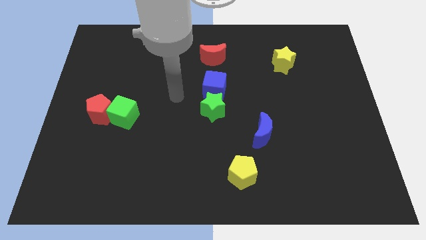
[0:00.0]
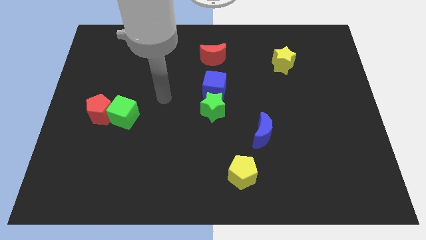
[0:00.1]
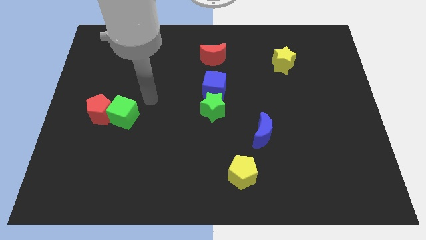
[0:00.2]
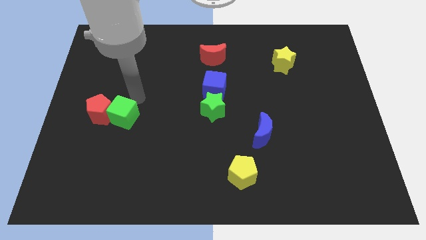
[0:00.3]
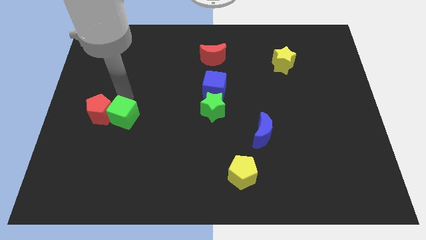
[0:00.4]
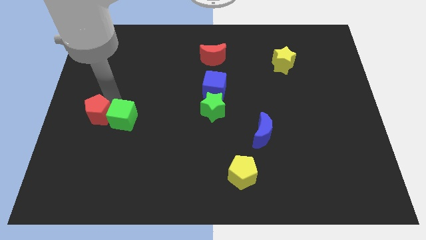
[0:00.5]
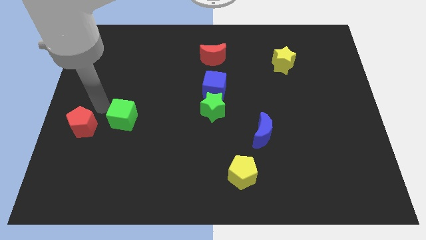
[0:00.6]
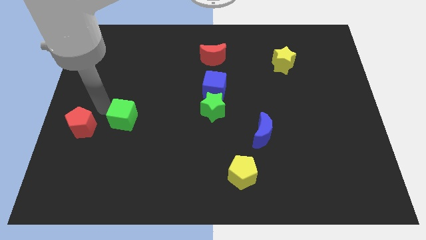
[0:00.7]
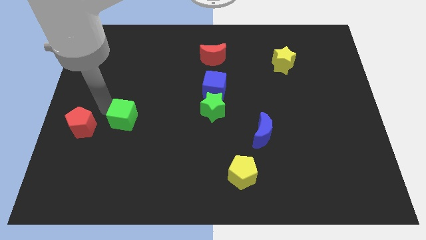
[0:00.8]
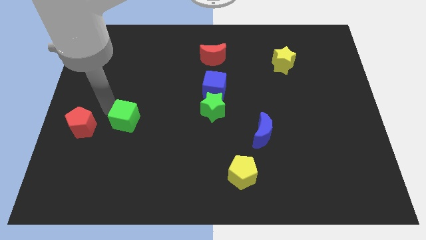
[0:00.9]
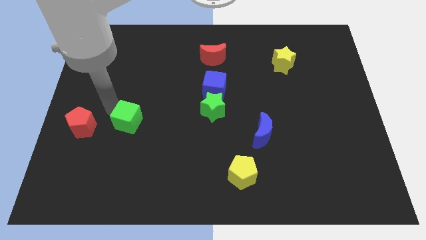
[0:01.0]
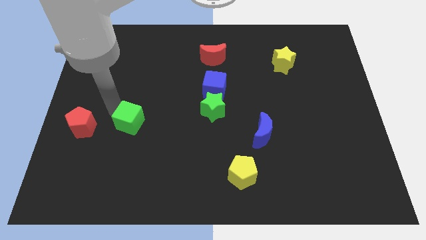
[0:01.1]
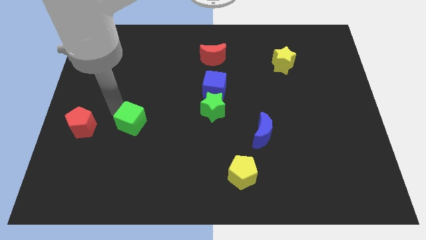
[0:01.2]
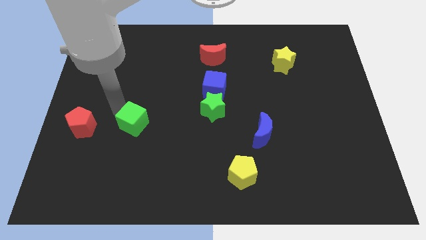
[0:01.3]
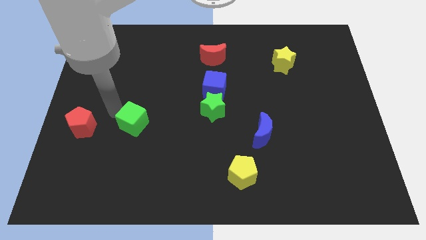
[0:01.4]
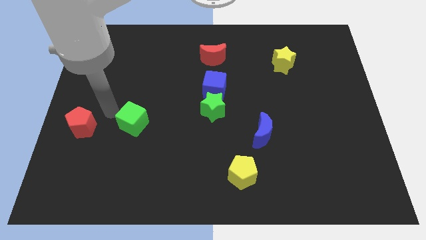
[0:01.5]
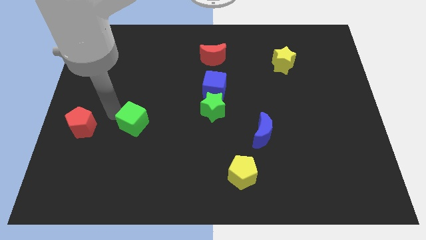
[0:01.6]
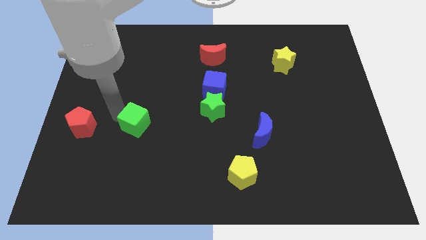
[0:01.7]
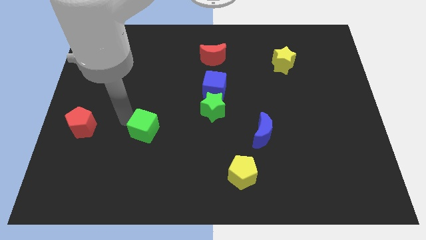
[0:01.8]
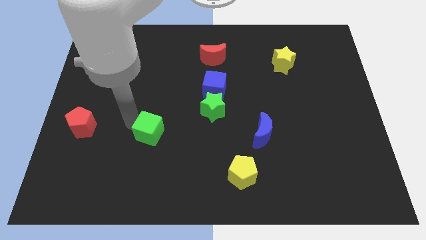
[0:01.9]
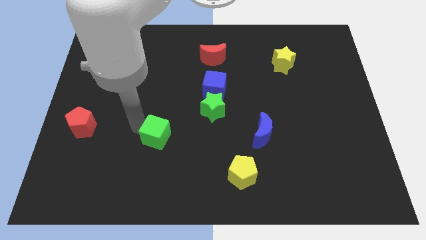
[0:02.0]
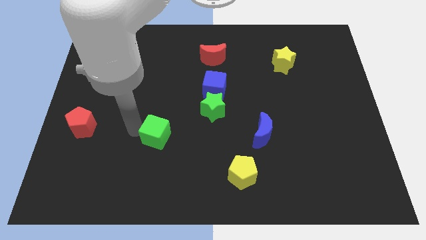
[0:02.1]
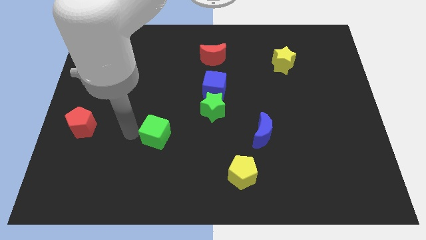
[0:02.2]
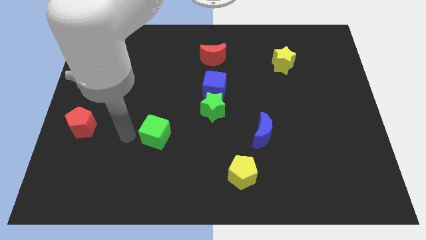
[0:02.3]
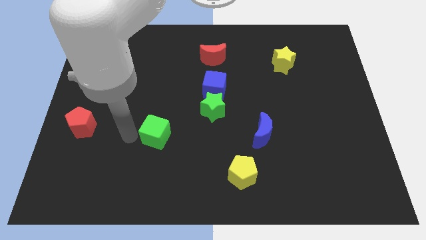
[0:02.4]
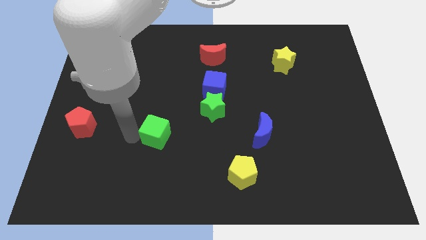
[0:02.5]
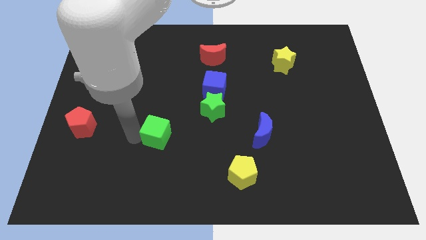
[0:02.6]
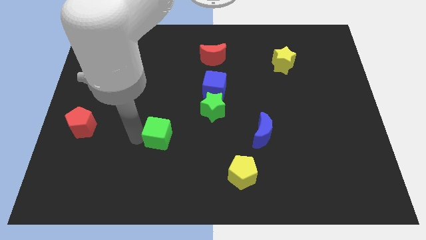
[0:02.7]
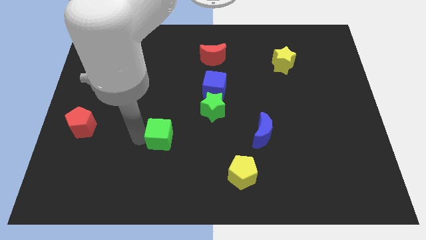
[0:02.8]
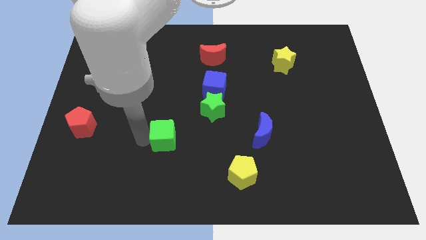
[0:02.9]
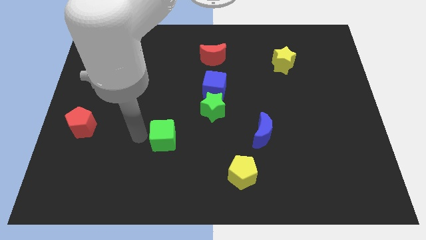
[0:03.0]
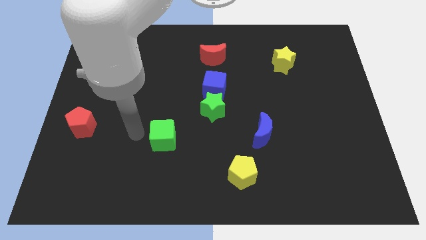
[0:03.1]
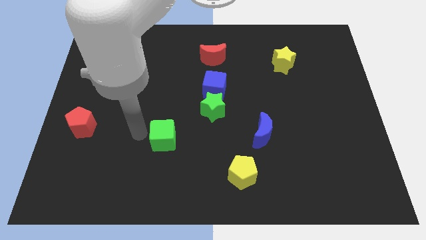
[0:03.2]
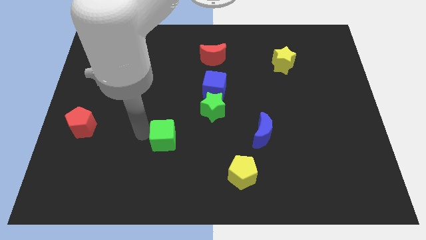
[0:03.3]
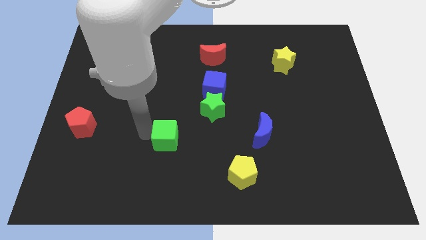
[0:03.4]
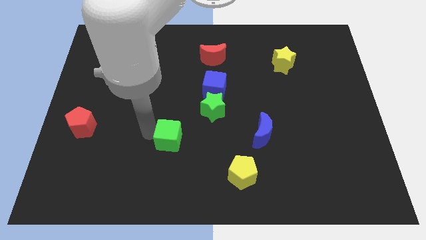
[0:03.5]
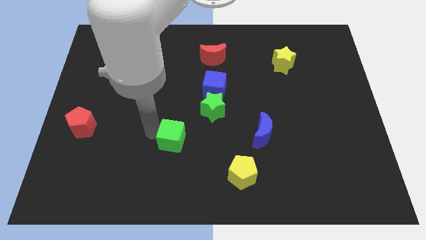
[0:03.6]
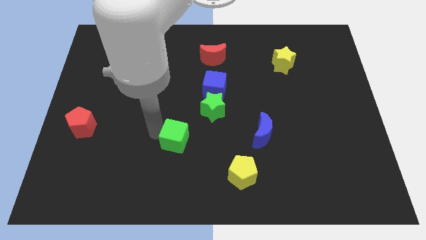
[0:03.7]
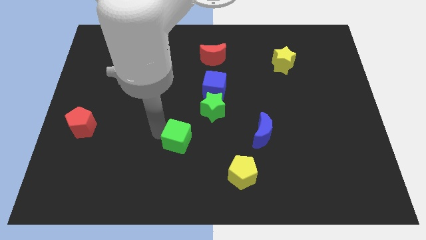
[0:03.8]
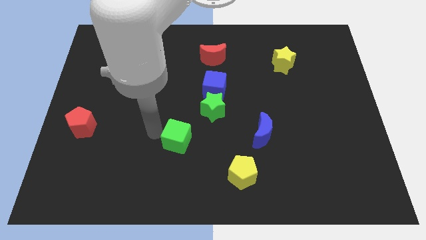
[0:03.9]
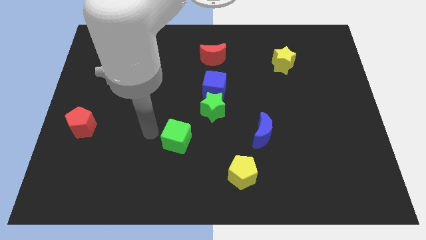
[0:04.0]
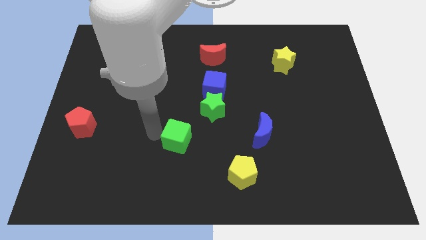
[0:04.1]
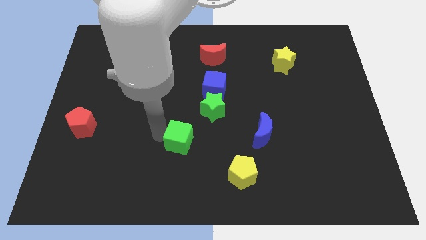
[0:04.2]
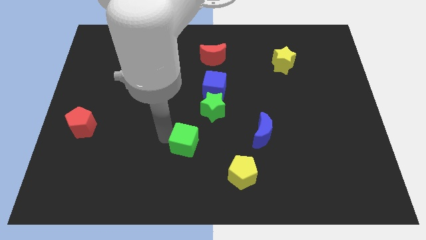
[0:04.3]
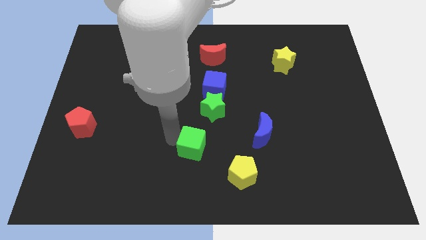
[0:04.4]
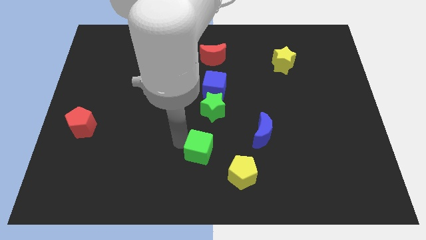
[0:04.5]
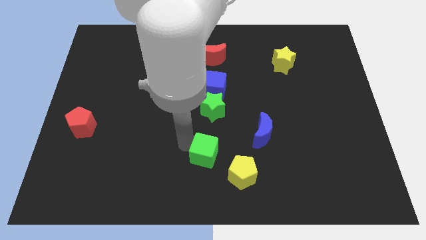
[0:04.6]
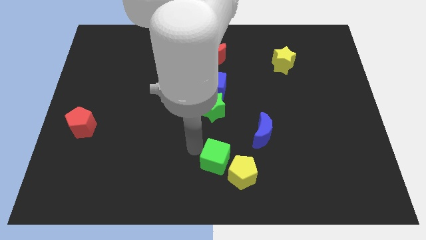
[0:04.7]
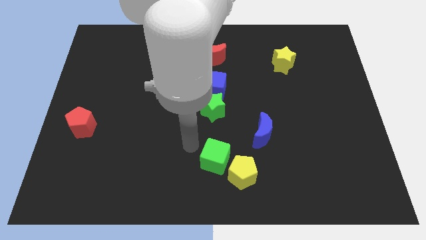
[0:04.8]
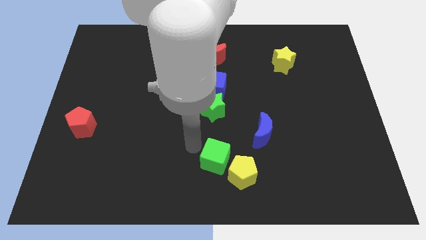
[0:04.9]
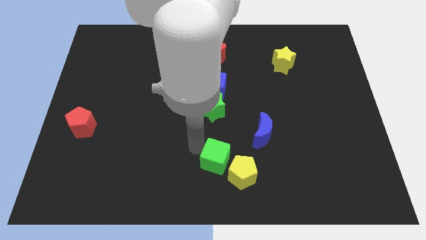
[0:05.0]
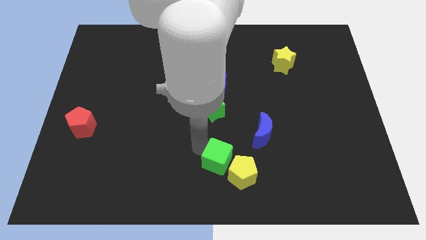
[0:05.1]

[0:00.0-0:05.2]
push the green cube to the yellow pentagon

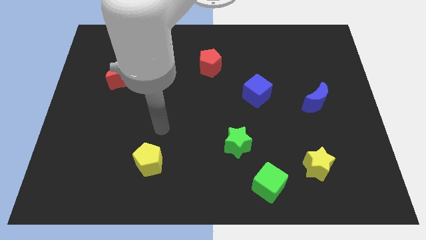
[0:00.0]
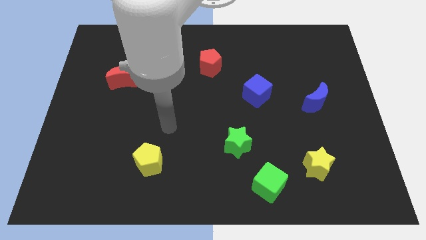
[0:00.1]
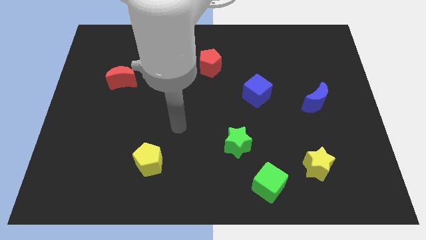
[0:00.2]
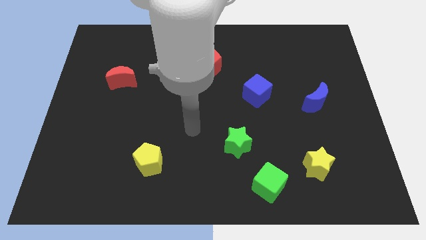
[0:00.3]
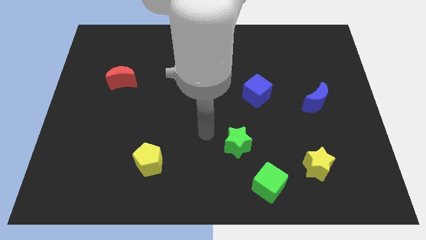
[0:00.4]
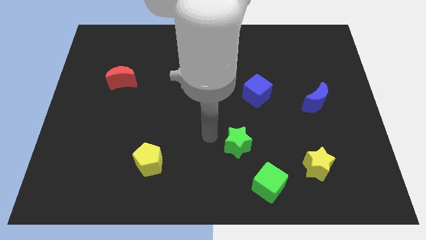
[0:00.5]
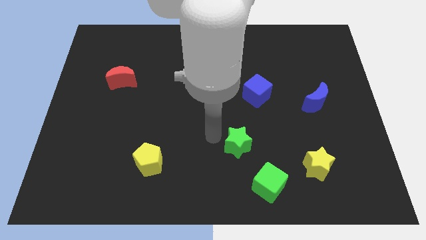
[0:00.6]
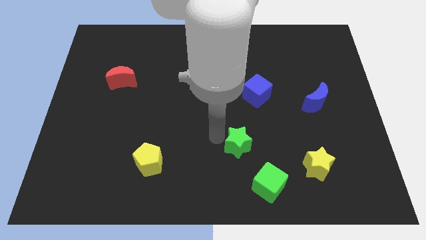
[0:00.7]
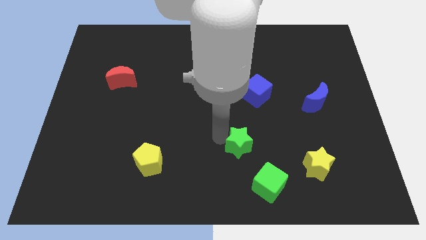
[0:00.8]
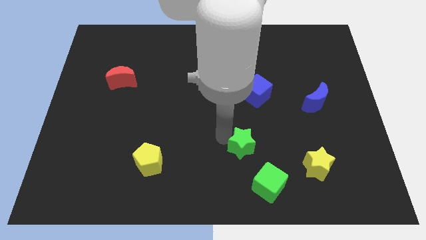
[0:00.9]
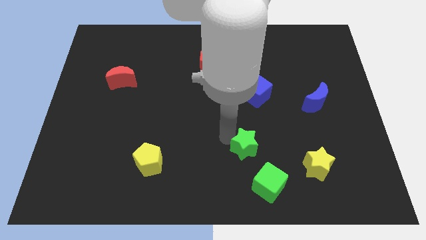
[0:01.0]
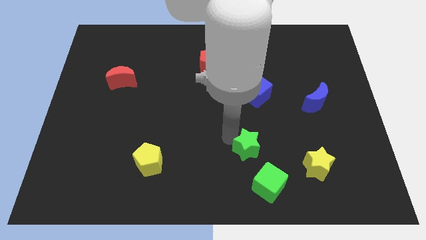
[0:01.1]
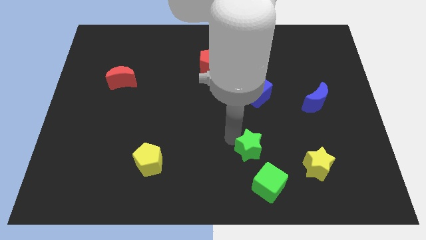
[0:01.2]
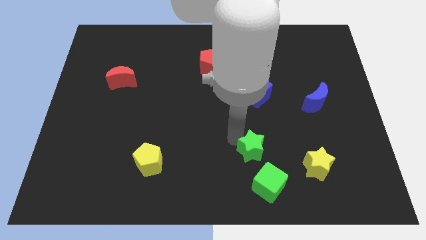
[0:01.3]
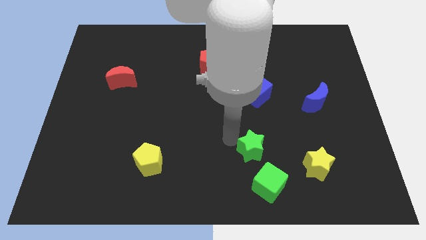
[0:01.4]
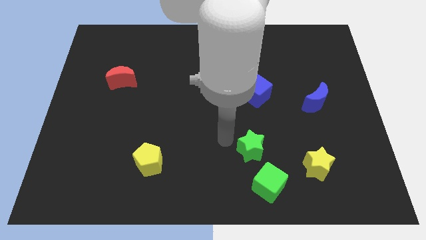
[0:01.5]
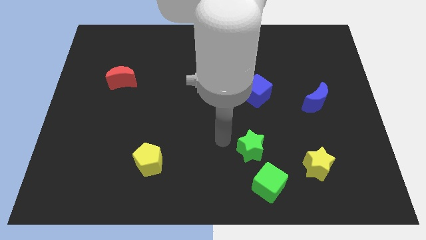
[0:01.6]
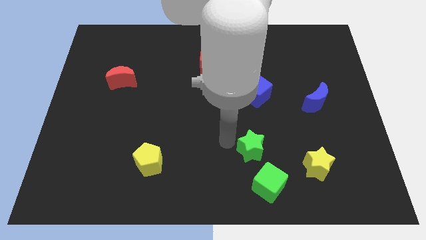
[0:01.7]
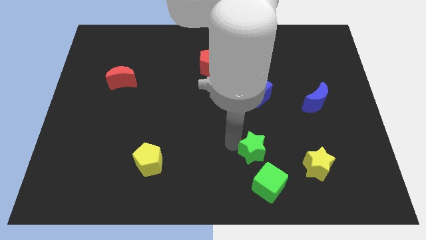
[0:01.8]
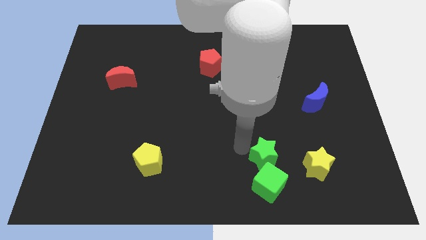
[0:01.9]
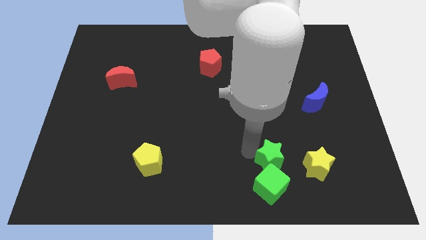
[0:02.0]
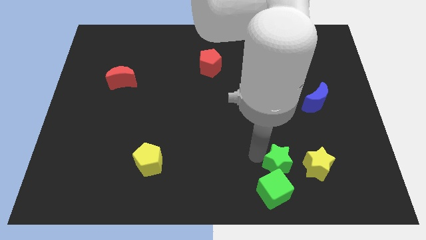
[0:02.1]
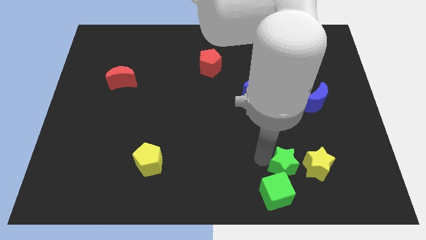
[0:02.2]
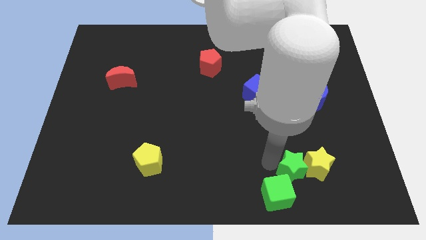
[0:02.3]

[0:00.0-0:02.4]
move the green star next to the yellow star
